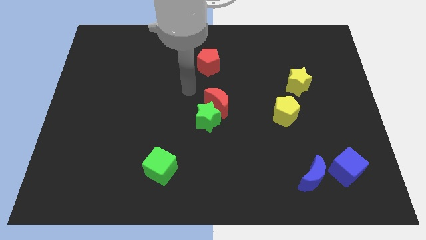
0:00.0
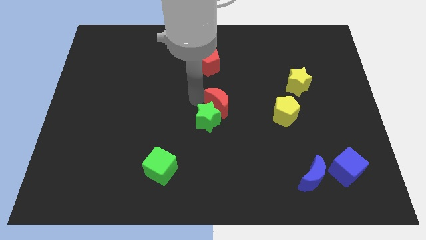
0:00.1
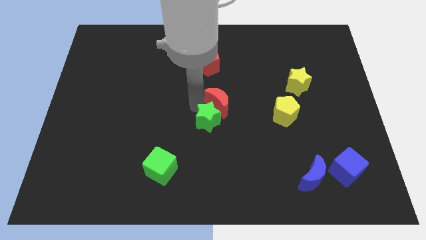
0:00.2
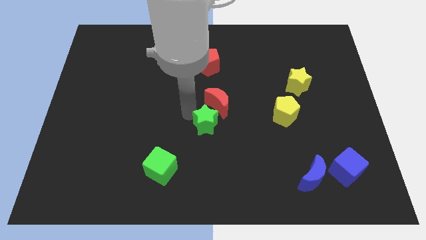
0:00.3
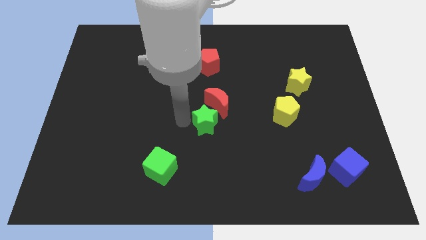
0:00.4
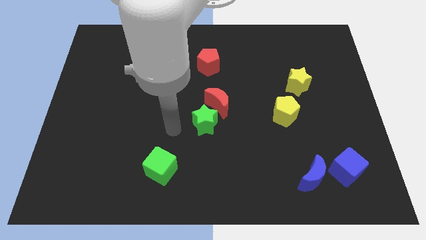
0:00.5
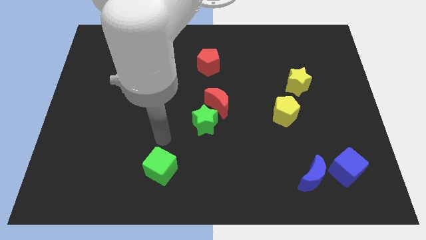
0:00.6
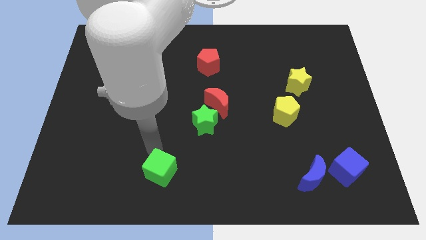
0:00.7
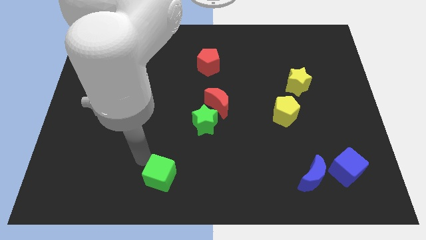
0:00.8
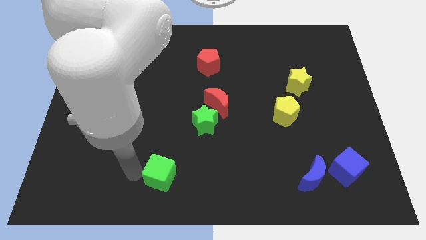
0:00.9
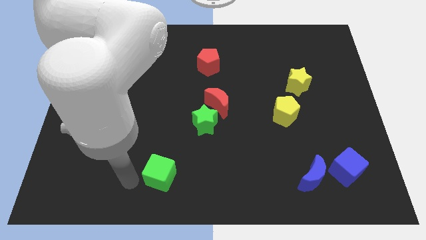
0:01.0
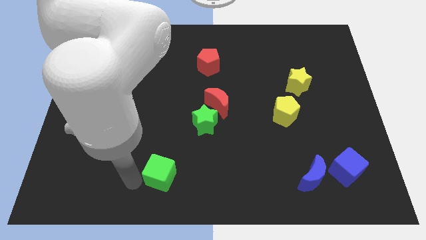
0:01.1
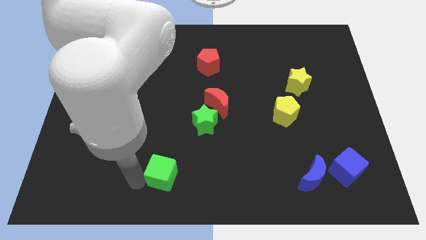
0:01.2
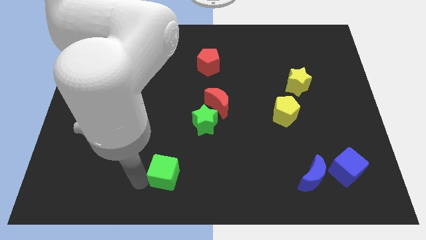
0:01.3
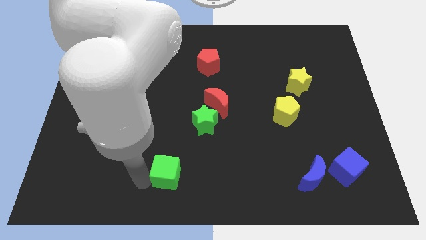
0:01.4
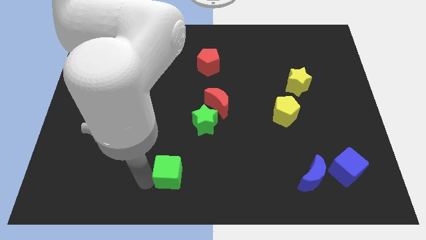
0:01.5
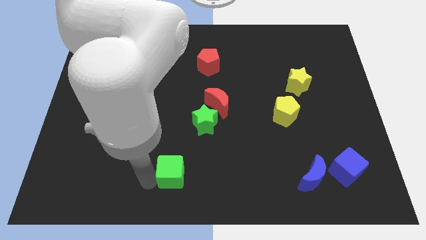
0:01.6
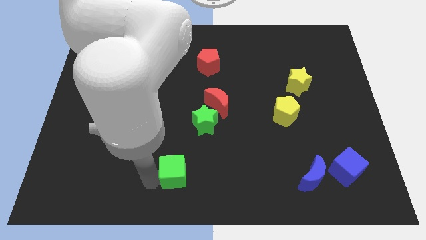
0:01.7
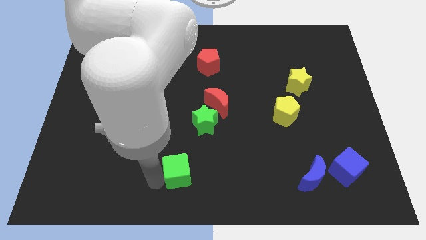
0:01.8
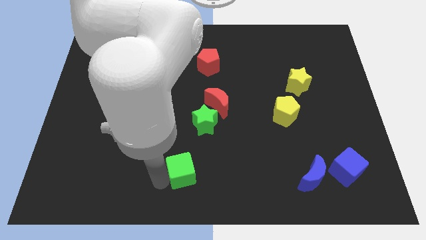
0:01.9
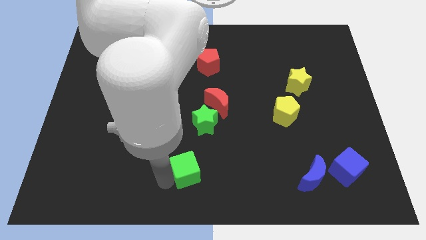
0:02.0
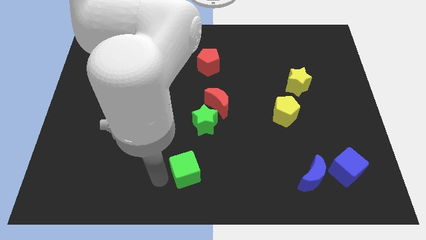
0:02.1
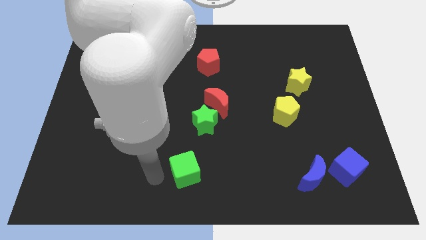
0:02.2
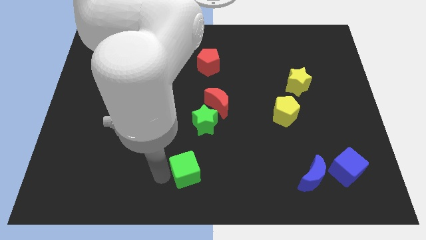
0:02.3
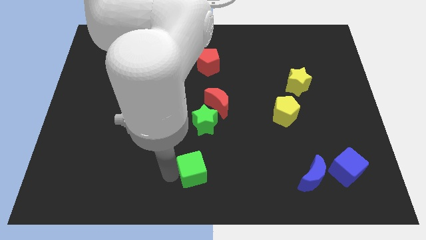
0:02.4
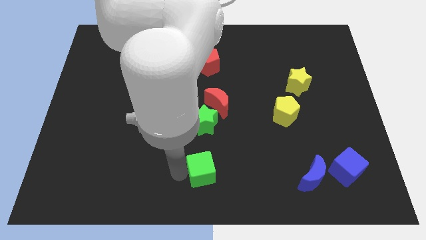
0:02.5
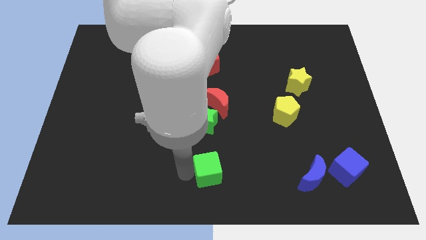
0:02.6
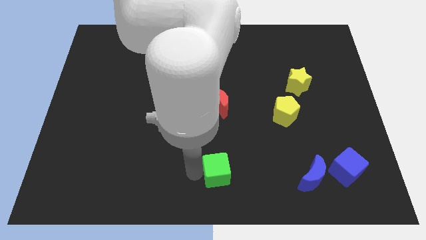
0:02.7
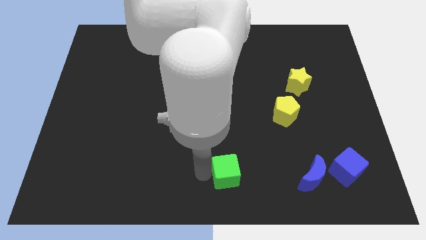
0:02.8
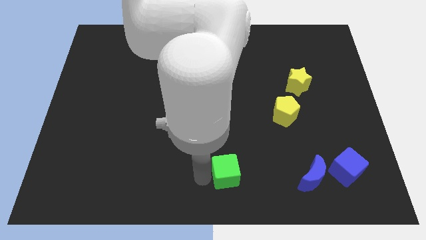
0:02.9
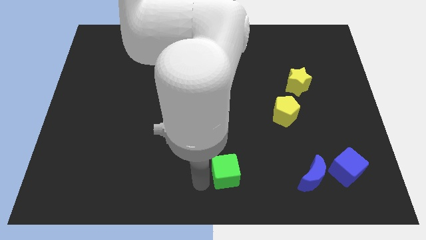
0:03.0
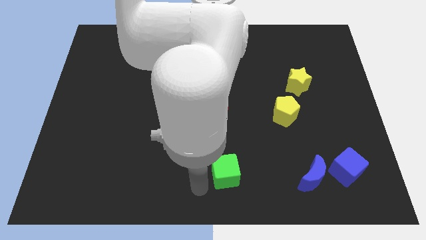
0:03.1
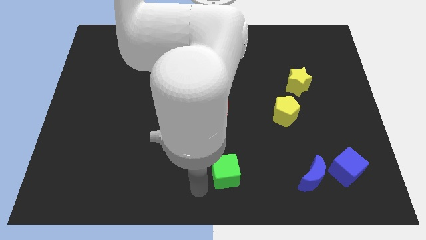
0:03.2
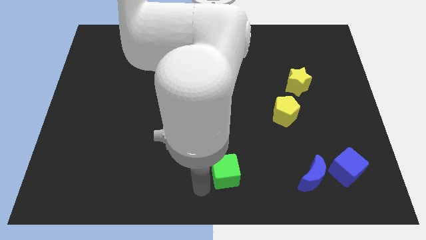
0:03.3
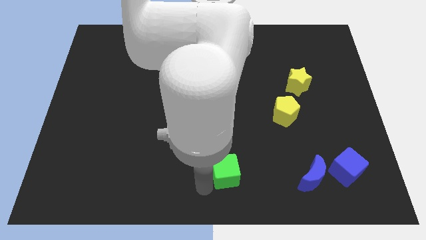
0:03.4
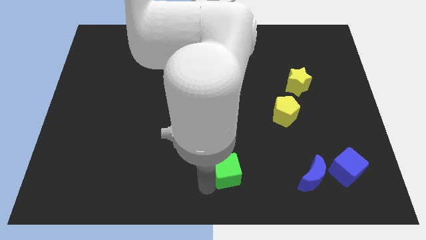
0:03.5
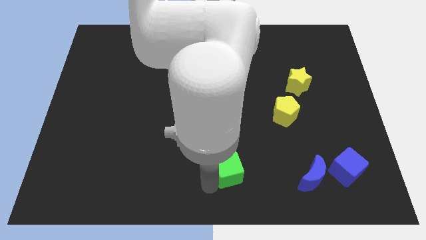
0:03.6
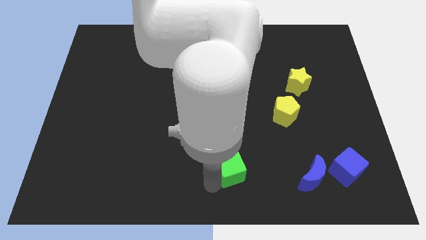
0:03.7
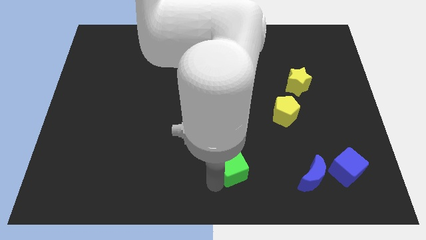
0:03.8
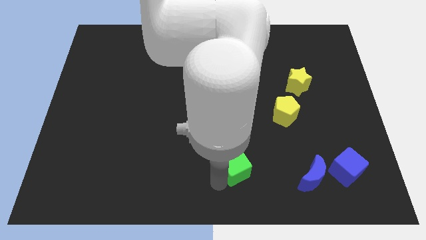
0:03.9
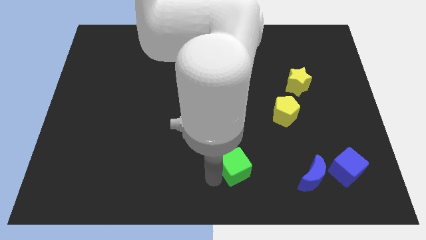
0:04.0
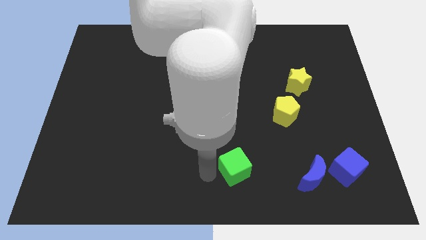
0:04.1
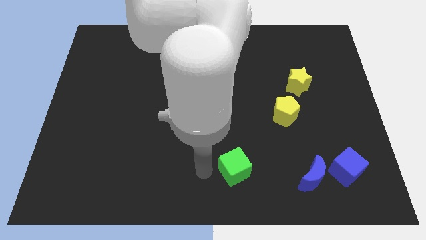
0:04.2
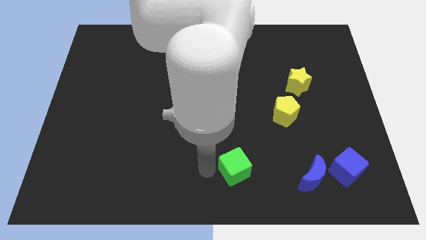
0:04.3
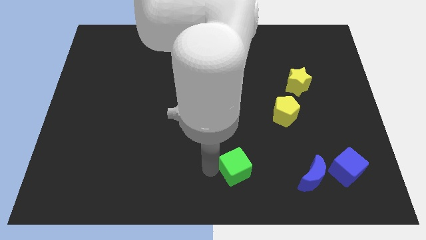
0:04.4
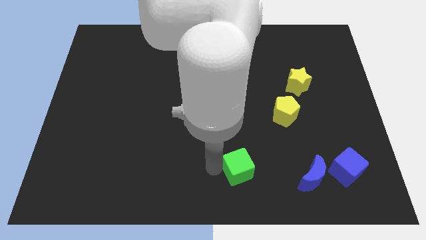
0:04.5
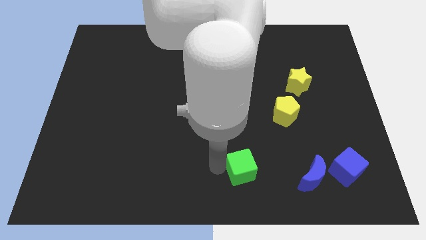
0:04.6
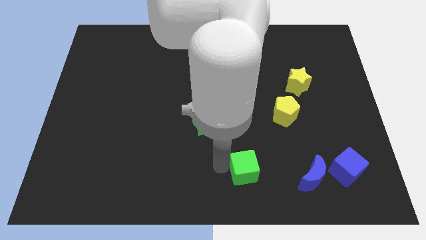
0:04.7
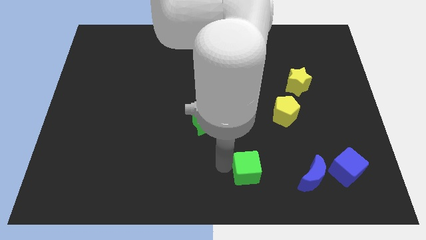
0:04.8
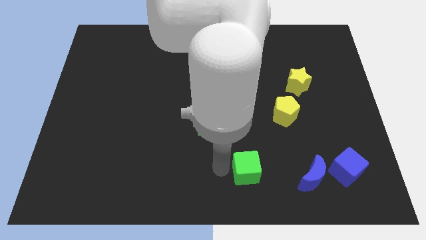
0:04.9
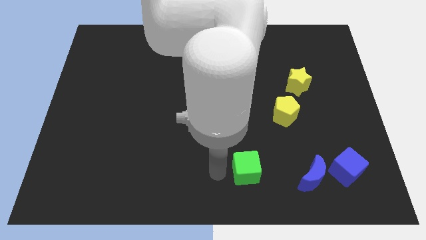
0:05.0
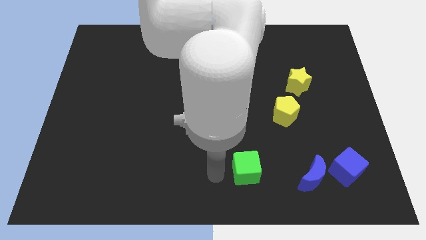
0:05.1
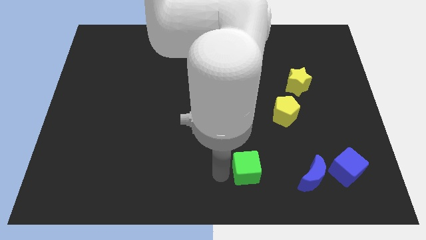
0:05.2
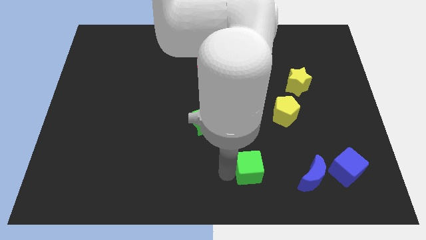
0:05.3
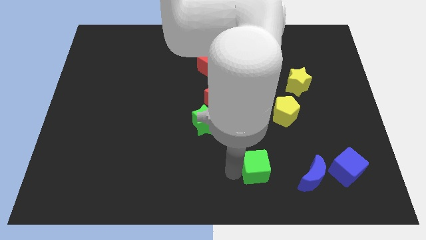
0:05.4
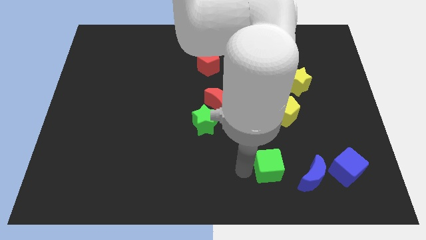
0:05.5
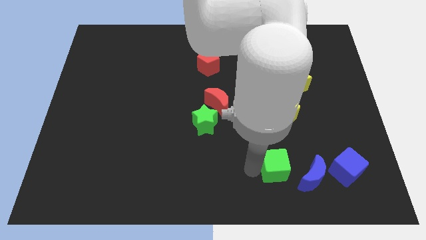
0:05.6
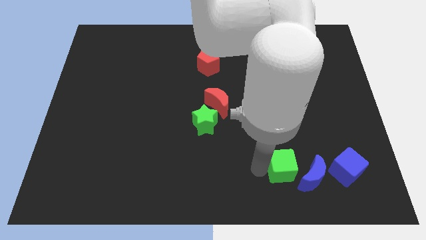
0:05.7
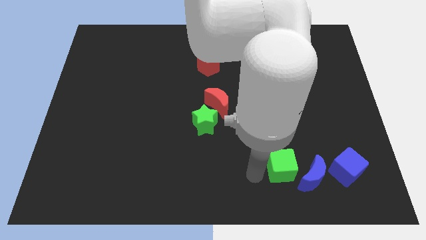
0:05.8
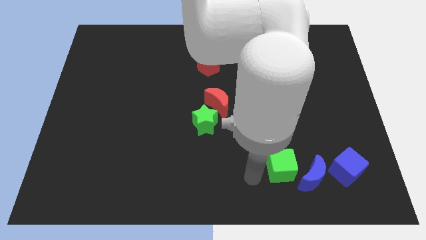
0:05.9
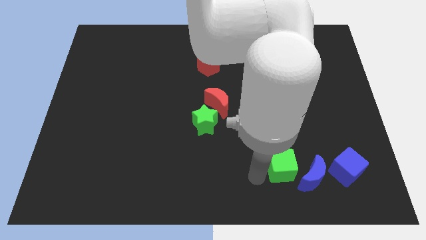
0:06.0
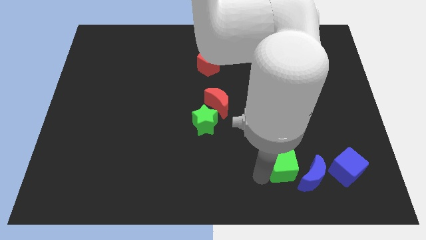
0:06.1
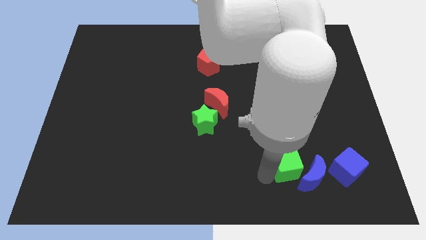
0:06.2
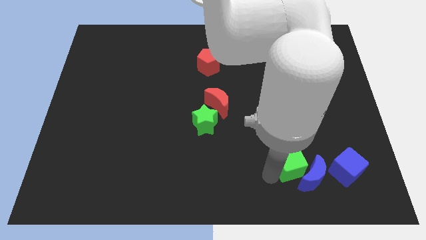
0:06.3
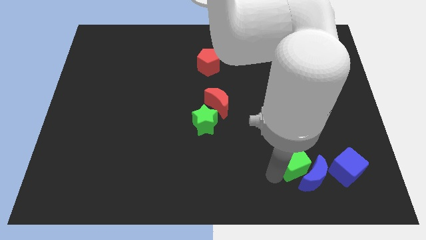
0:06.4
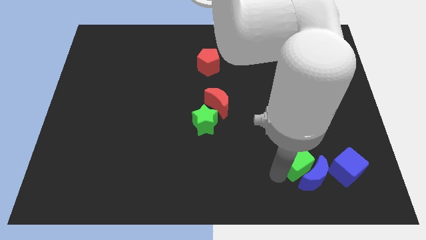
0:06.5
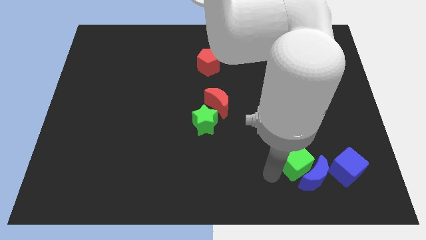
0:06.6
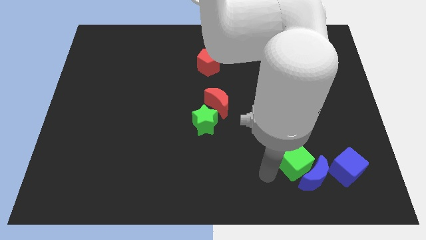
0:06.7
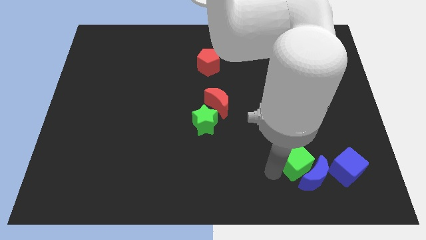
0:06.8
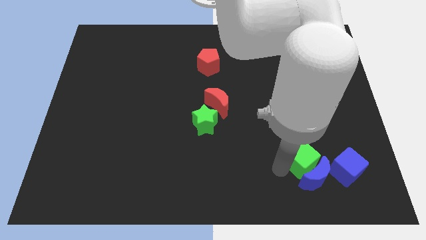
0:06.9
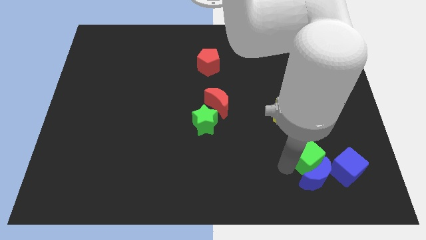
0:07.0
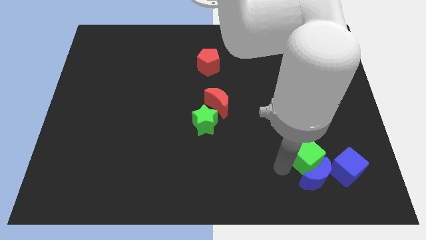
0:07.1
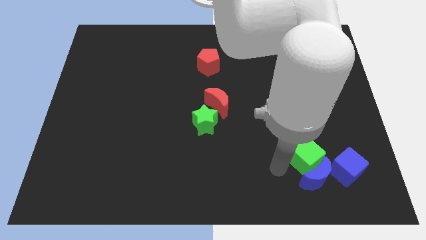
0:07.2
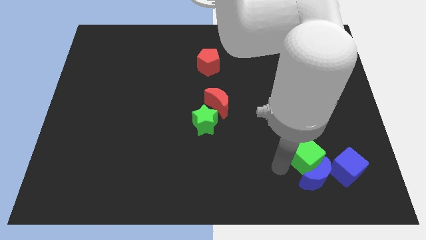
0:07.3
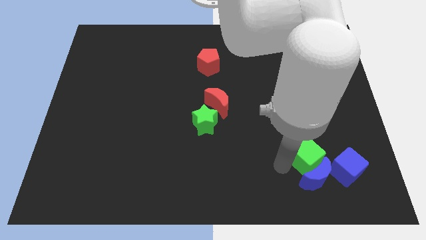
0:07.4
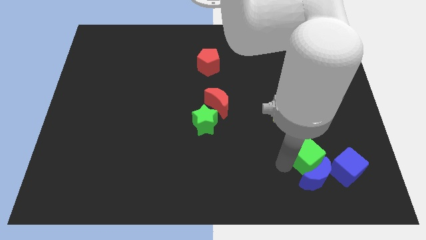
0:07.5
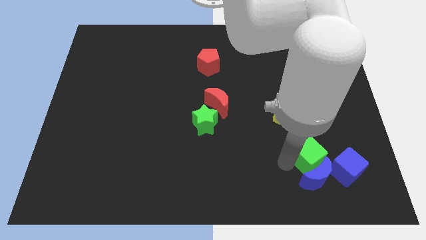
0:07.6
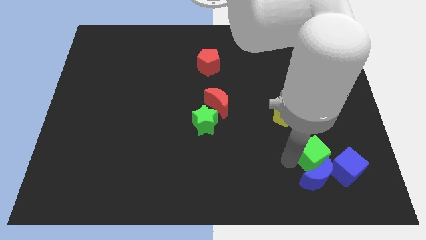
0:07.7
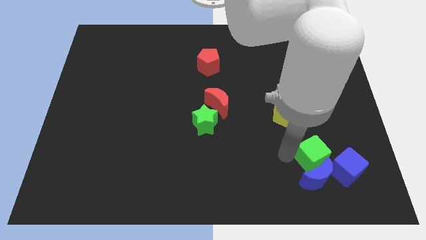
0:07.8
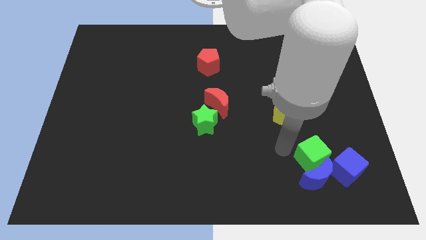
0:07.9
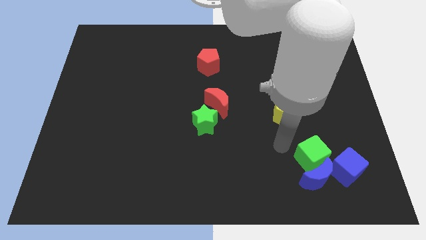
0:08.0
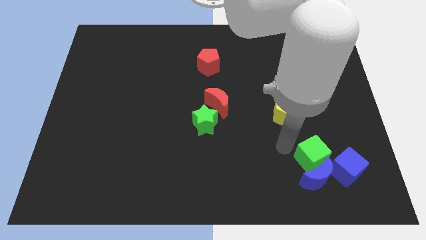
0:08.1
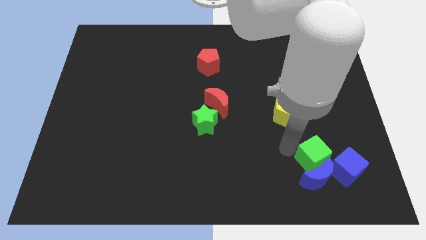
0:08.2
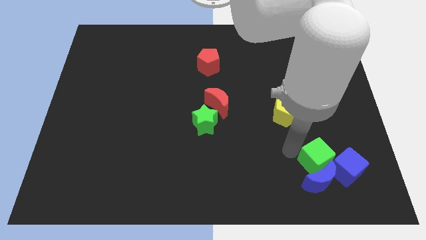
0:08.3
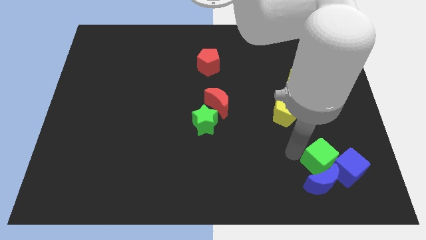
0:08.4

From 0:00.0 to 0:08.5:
move the green cube close to the blue cube
